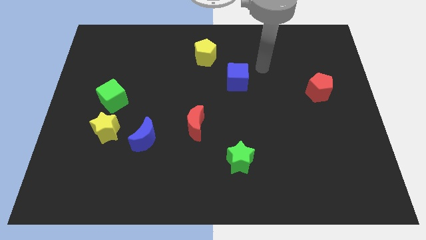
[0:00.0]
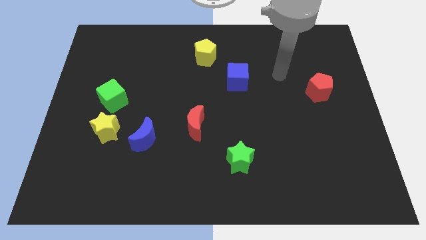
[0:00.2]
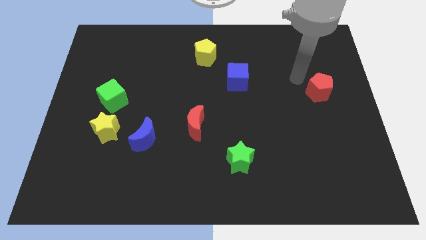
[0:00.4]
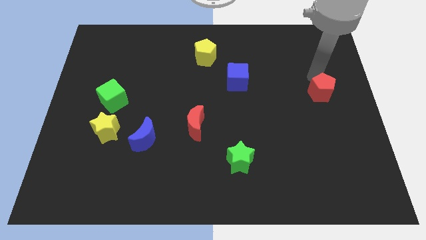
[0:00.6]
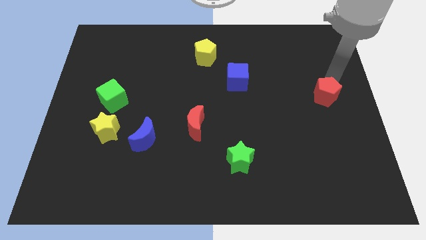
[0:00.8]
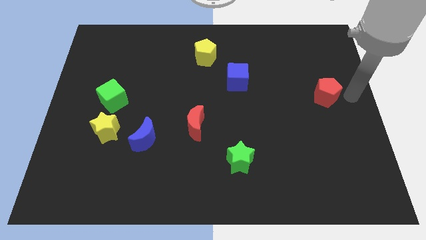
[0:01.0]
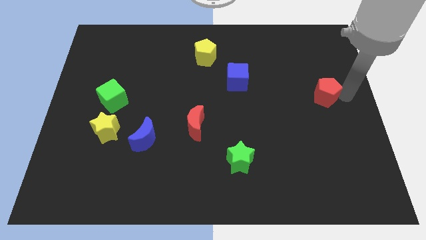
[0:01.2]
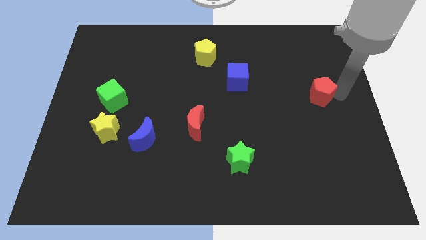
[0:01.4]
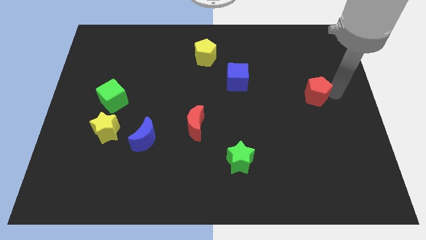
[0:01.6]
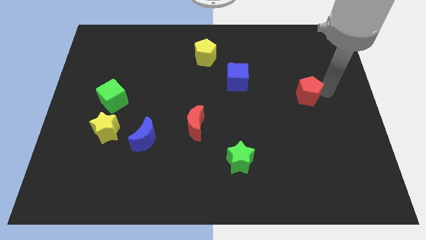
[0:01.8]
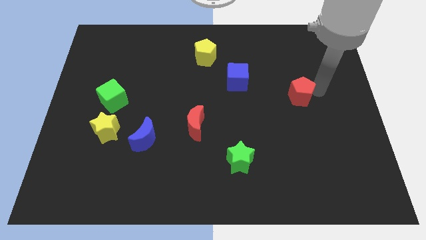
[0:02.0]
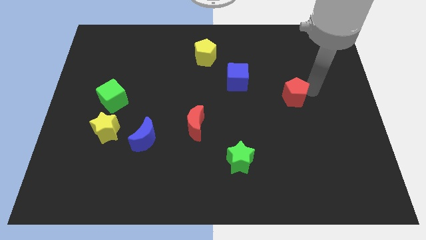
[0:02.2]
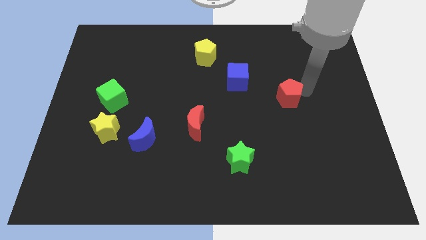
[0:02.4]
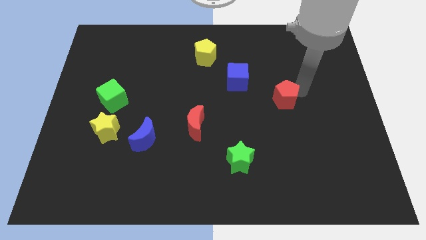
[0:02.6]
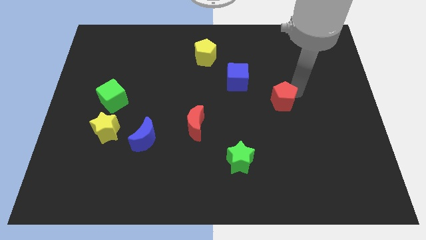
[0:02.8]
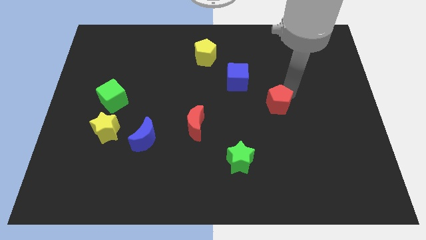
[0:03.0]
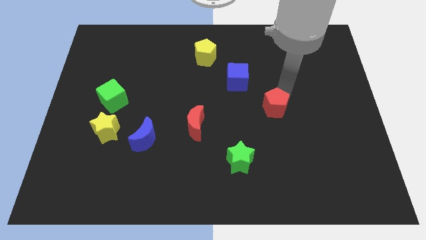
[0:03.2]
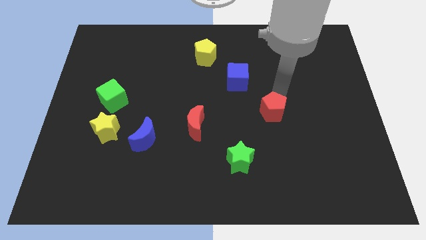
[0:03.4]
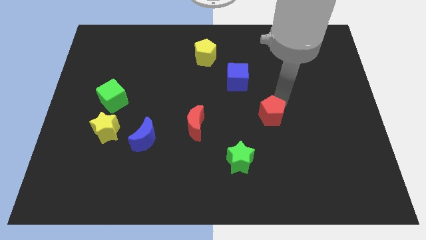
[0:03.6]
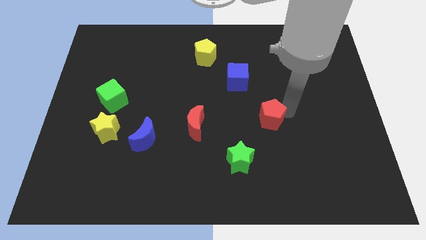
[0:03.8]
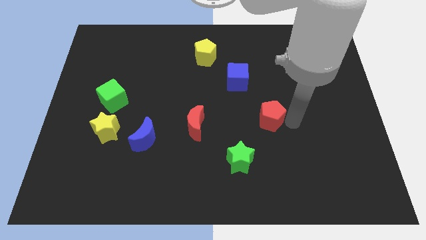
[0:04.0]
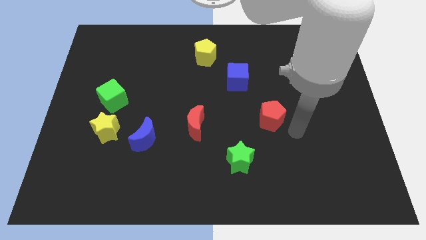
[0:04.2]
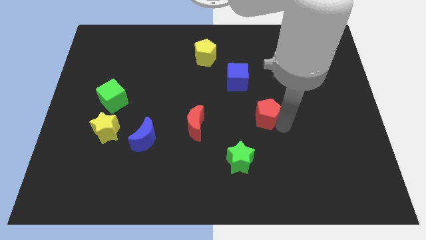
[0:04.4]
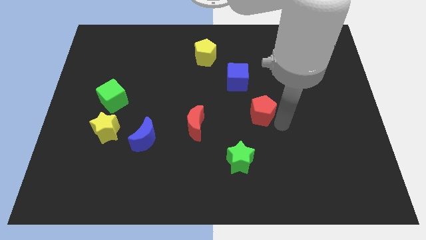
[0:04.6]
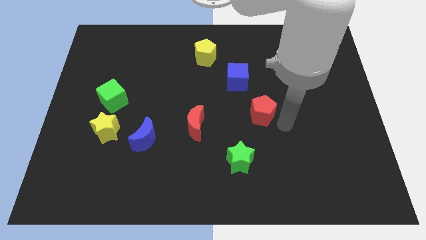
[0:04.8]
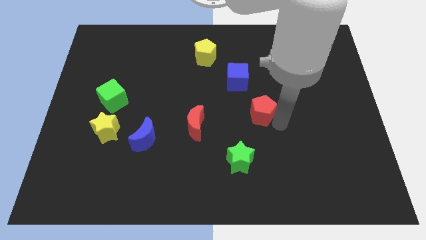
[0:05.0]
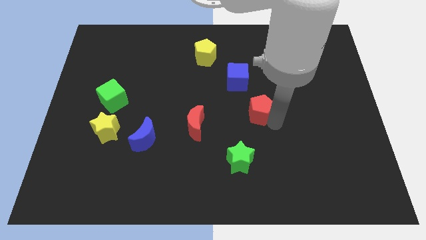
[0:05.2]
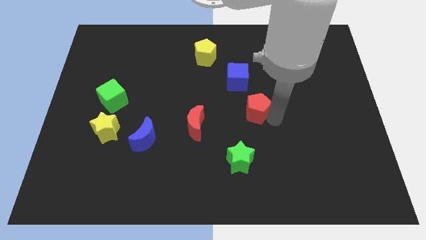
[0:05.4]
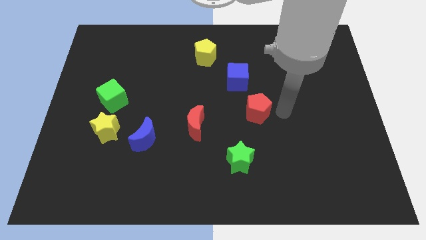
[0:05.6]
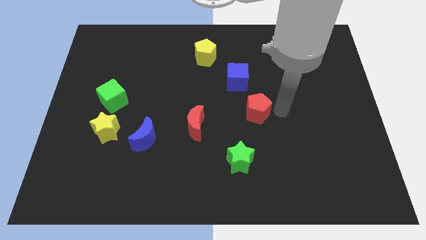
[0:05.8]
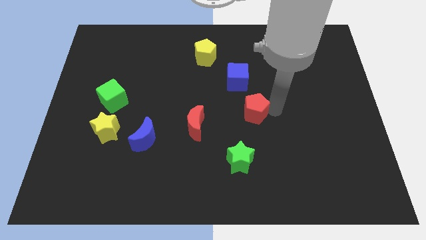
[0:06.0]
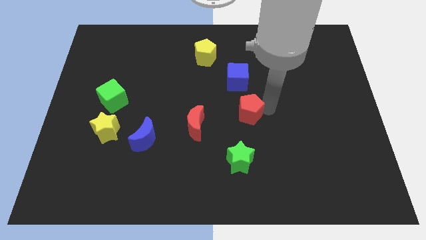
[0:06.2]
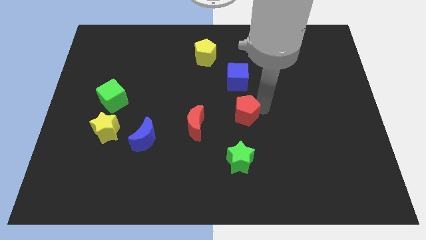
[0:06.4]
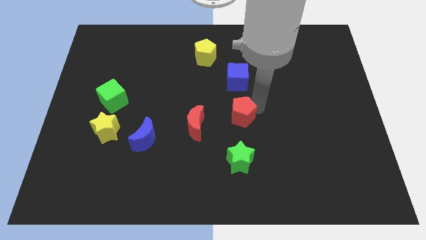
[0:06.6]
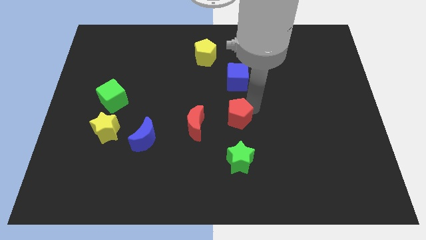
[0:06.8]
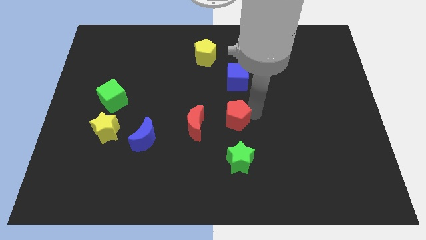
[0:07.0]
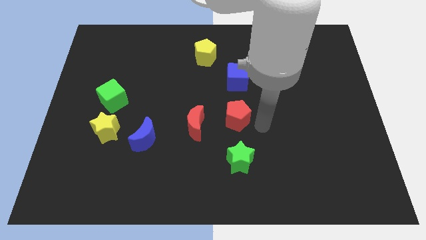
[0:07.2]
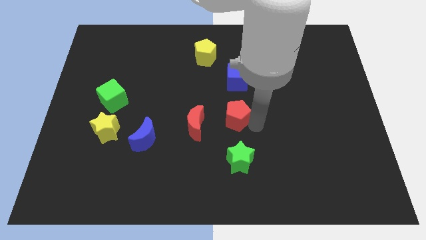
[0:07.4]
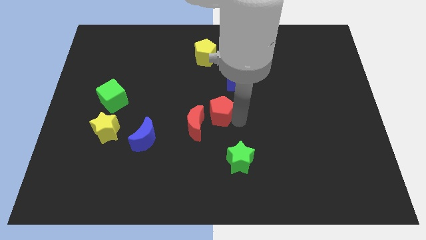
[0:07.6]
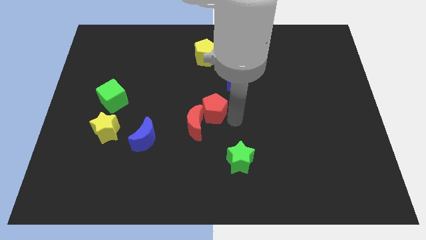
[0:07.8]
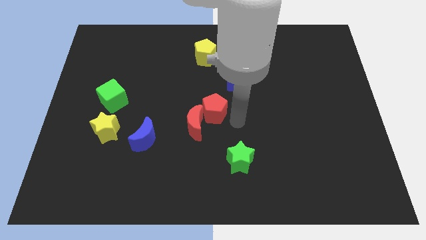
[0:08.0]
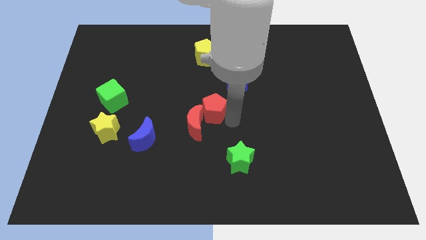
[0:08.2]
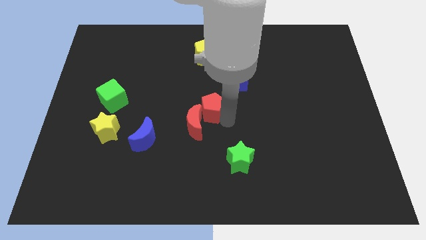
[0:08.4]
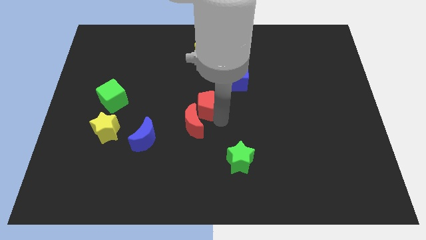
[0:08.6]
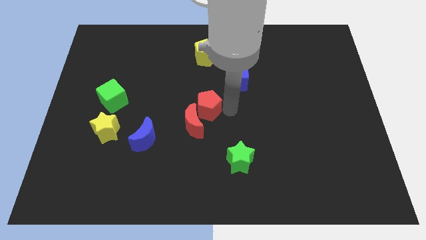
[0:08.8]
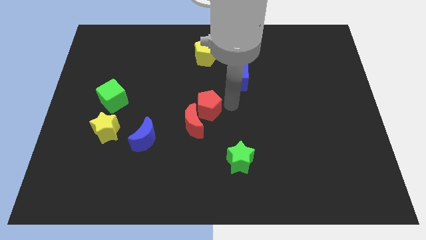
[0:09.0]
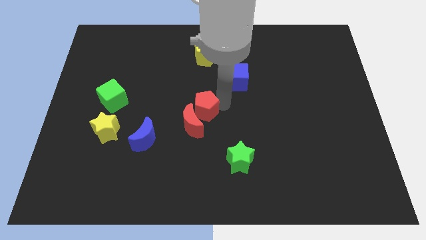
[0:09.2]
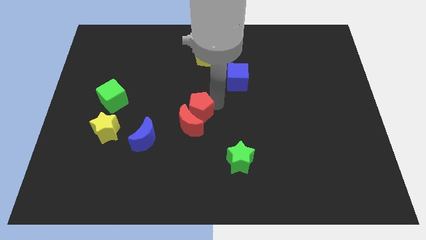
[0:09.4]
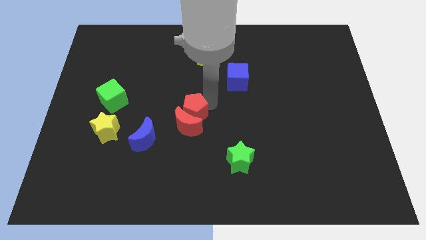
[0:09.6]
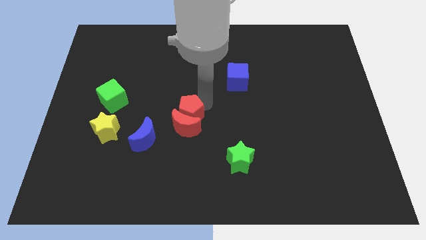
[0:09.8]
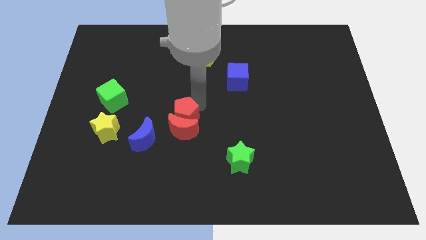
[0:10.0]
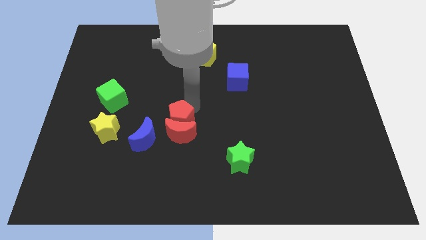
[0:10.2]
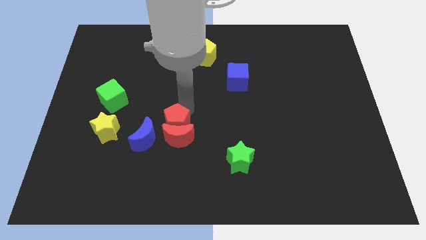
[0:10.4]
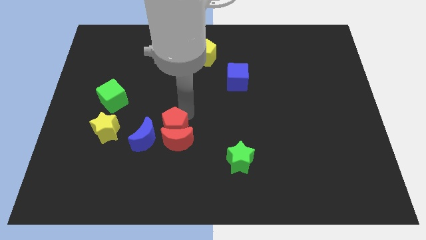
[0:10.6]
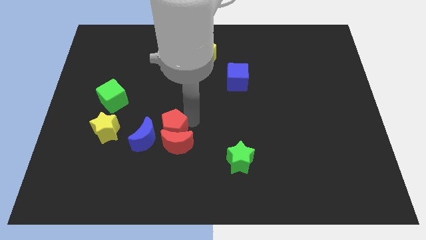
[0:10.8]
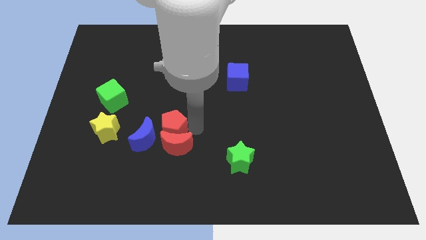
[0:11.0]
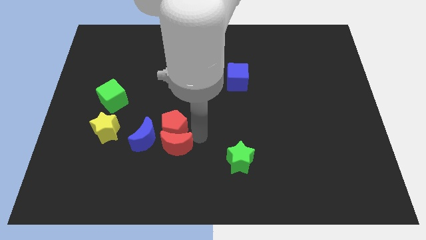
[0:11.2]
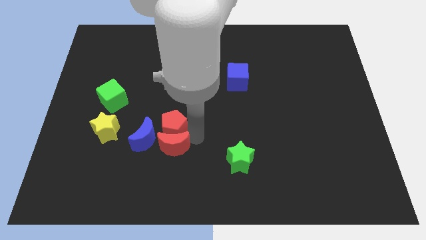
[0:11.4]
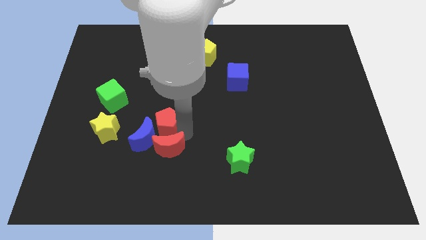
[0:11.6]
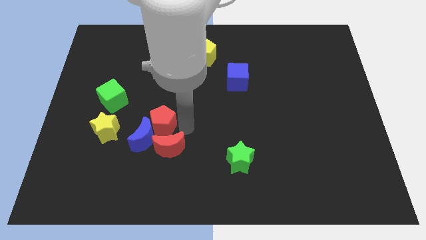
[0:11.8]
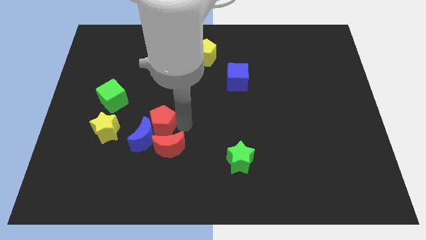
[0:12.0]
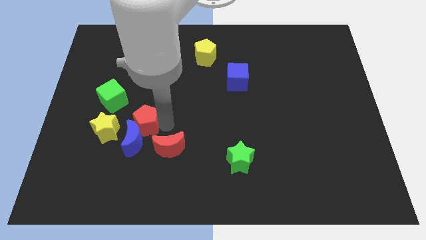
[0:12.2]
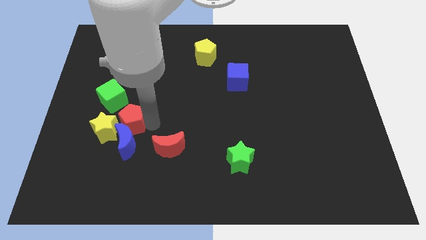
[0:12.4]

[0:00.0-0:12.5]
push the red pentagon towards the yellow star

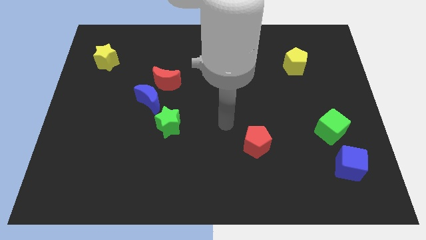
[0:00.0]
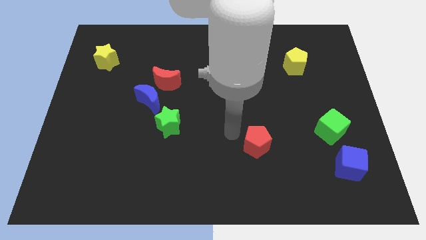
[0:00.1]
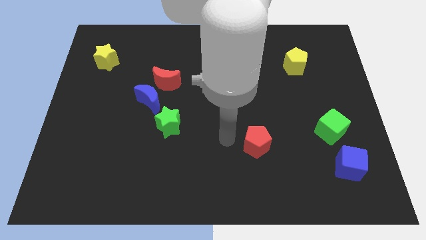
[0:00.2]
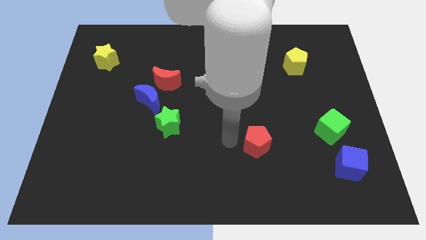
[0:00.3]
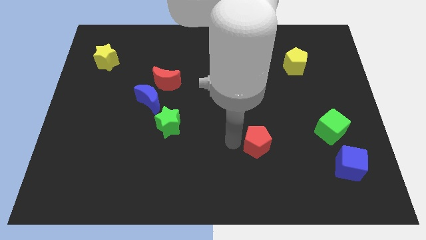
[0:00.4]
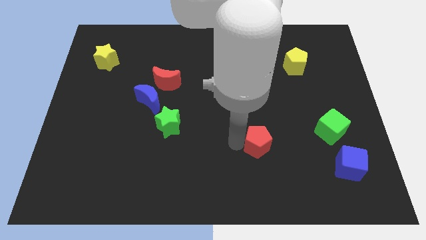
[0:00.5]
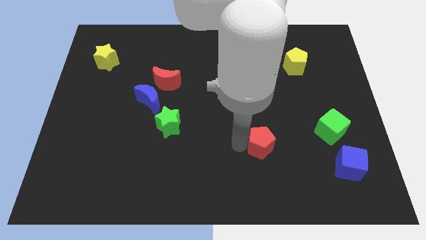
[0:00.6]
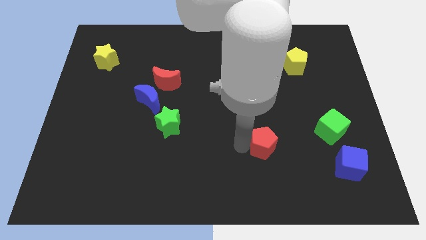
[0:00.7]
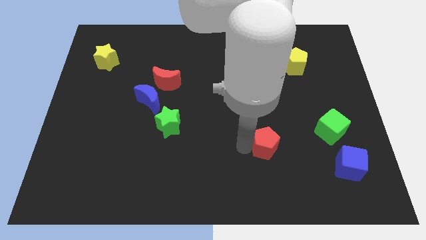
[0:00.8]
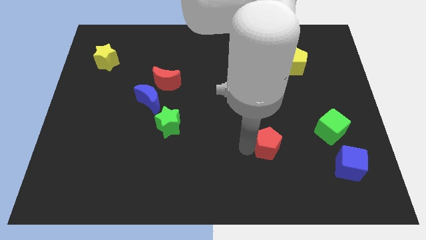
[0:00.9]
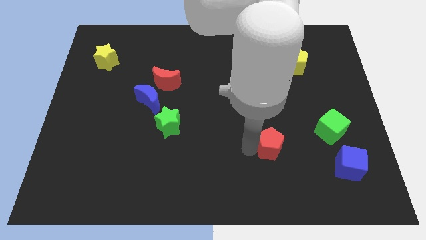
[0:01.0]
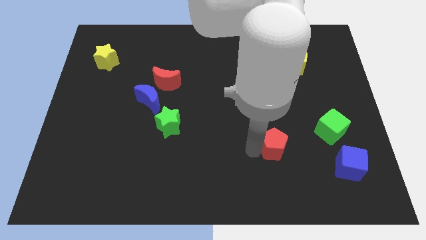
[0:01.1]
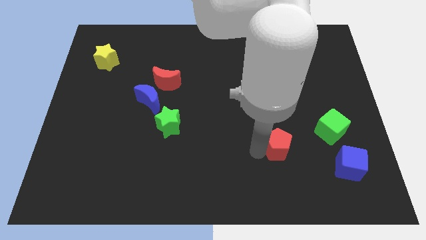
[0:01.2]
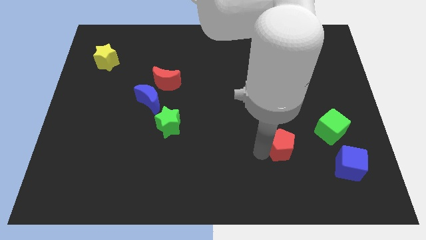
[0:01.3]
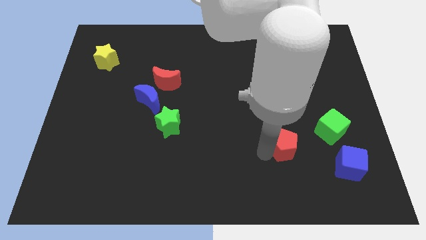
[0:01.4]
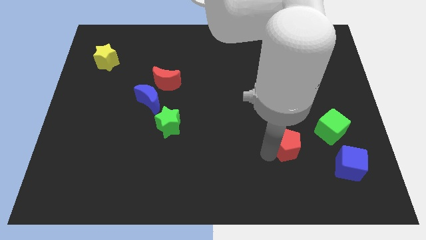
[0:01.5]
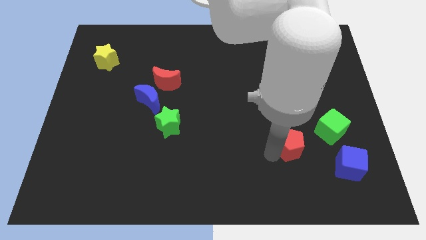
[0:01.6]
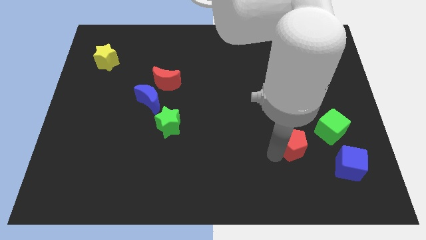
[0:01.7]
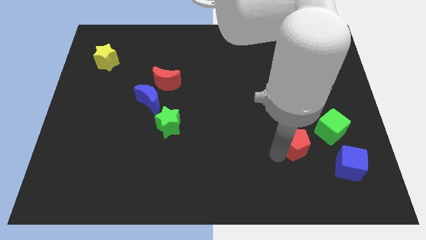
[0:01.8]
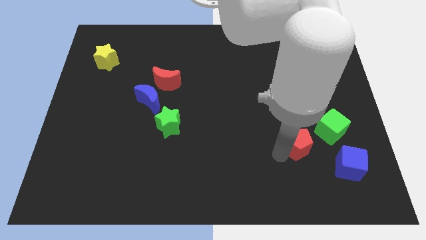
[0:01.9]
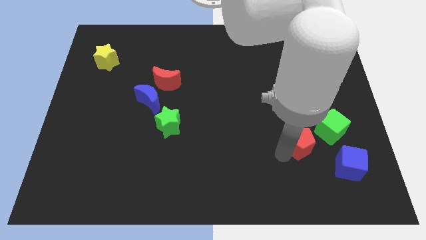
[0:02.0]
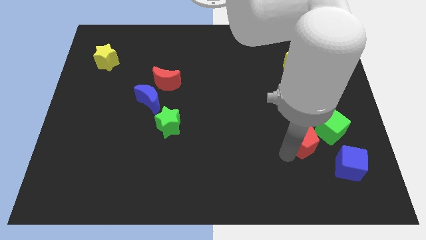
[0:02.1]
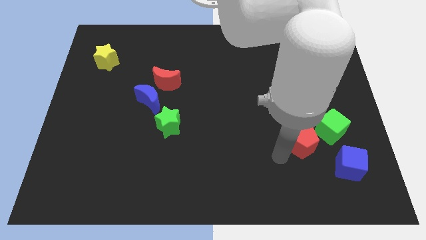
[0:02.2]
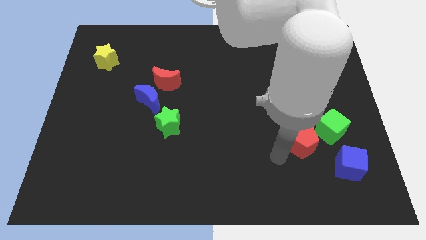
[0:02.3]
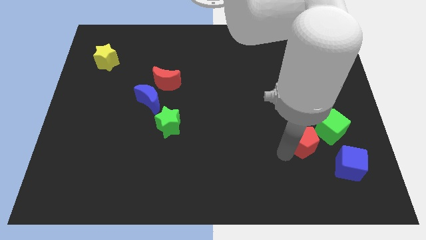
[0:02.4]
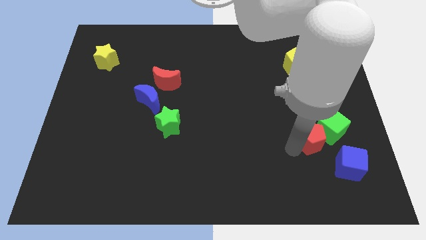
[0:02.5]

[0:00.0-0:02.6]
push the red pentagon to the green cube
